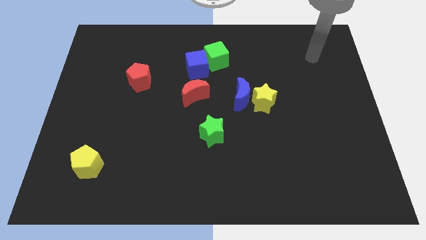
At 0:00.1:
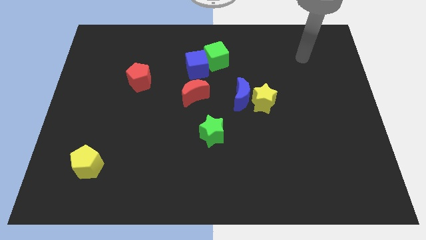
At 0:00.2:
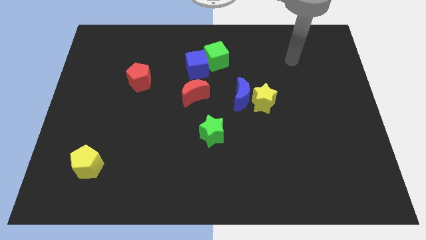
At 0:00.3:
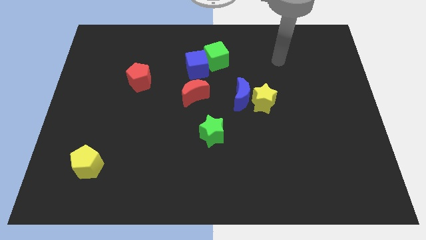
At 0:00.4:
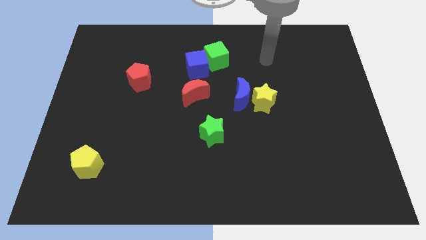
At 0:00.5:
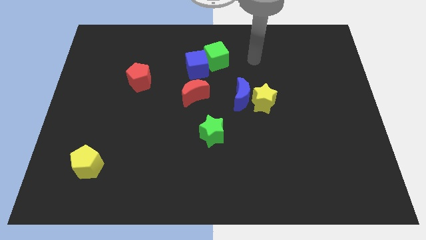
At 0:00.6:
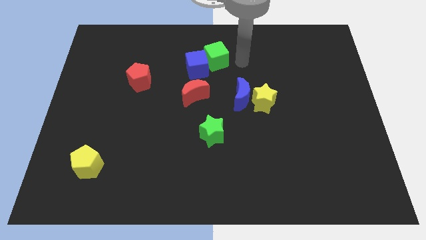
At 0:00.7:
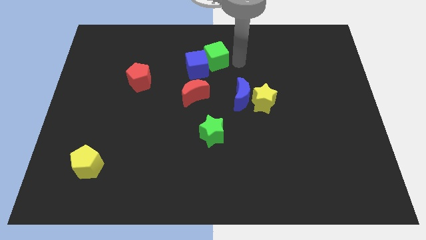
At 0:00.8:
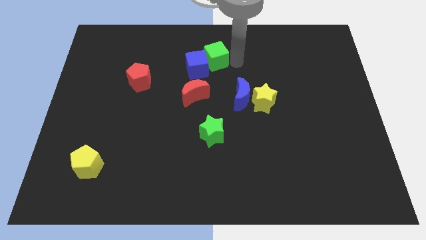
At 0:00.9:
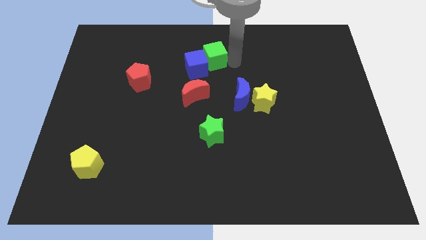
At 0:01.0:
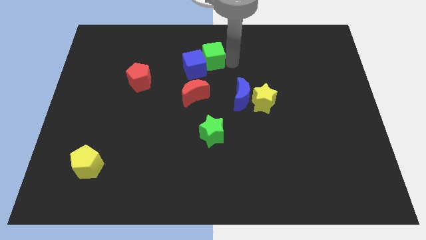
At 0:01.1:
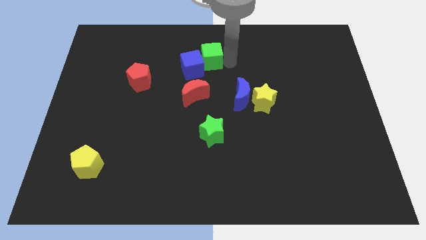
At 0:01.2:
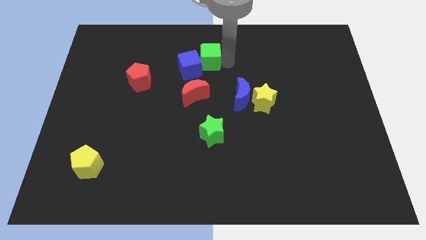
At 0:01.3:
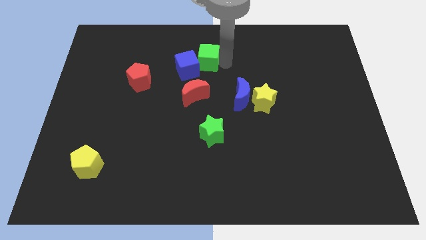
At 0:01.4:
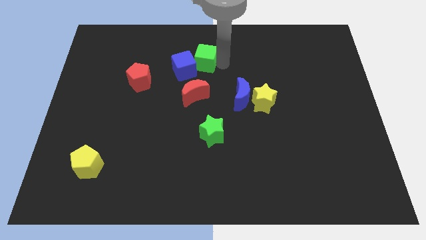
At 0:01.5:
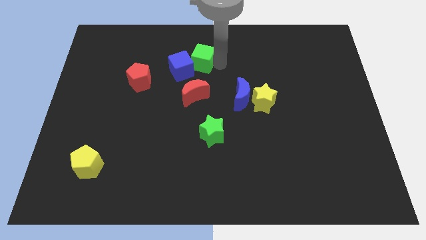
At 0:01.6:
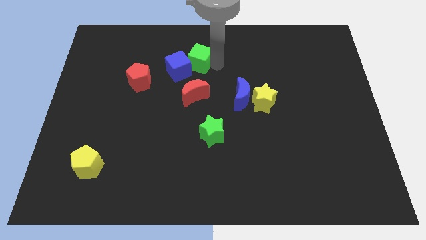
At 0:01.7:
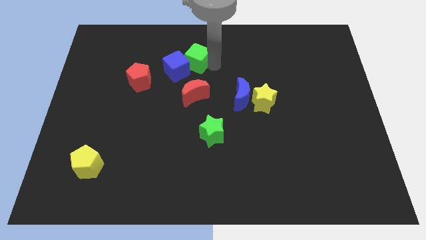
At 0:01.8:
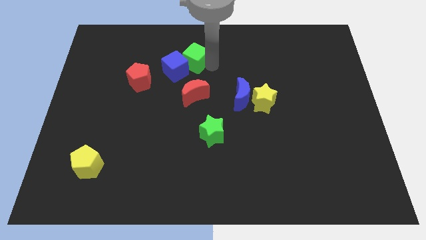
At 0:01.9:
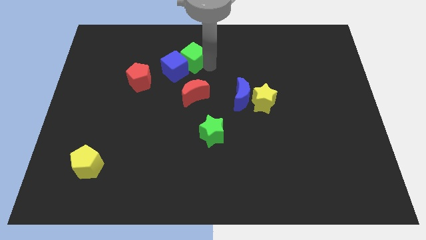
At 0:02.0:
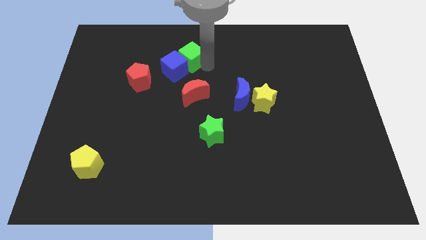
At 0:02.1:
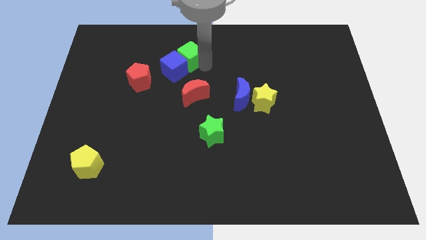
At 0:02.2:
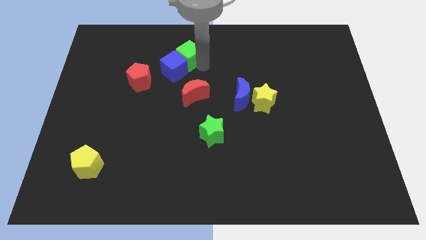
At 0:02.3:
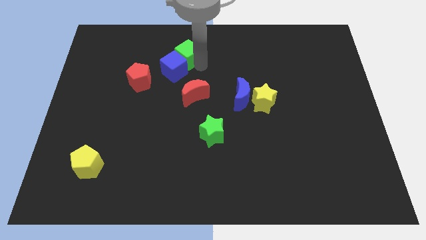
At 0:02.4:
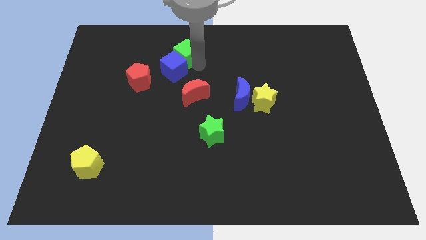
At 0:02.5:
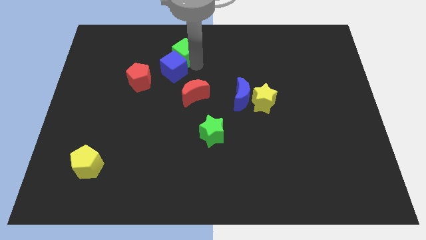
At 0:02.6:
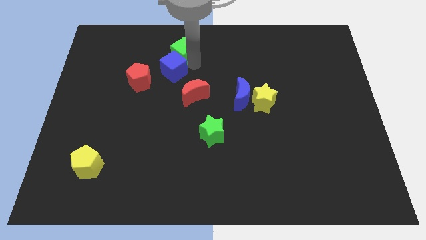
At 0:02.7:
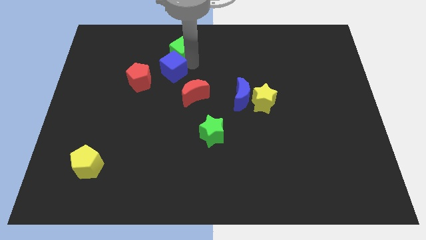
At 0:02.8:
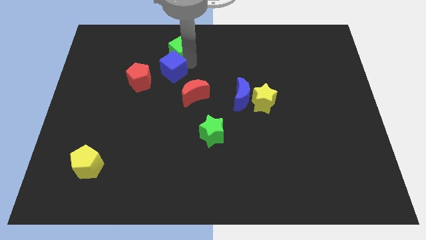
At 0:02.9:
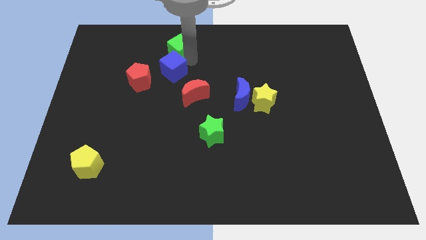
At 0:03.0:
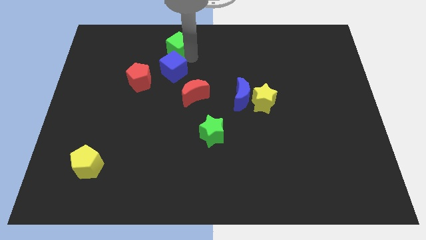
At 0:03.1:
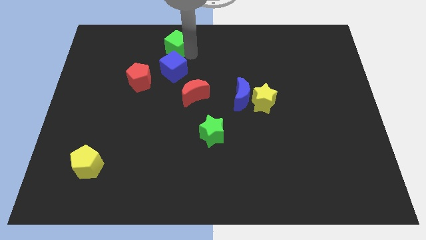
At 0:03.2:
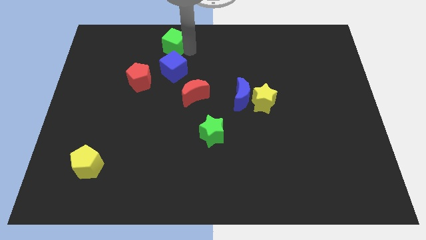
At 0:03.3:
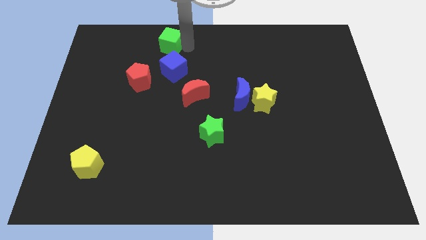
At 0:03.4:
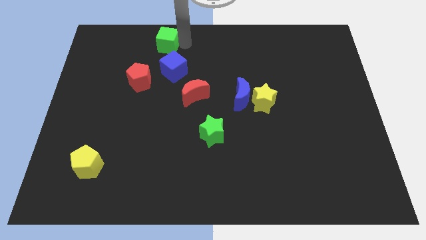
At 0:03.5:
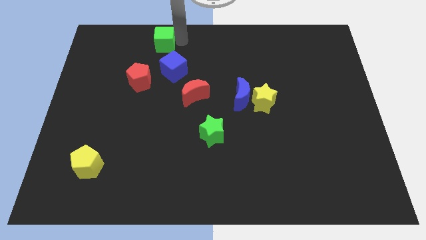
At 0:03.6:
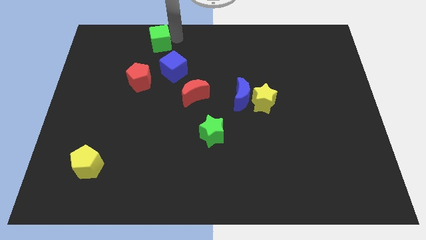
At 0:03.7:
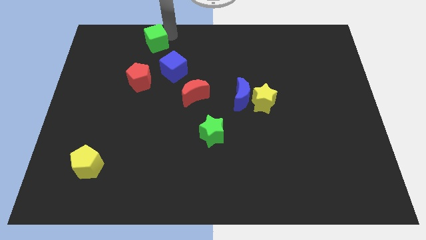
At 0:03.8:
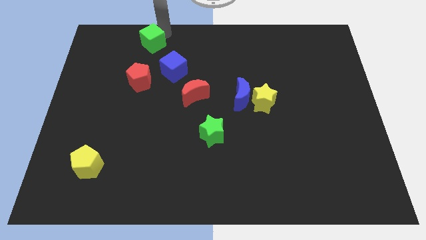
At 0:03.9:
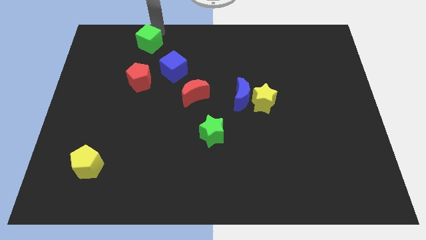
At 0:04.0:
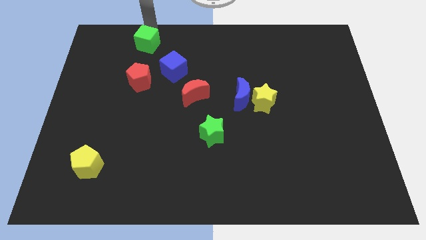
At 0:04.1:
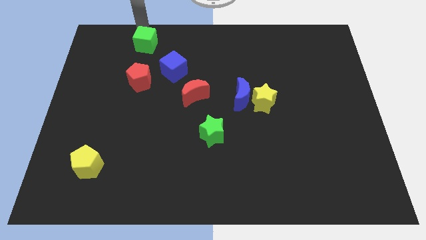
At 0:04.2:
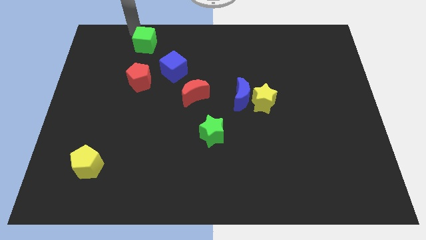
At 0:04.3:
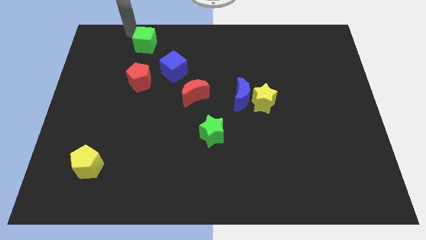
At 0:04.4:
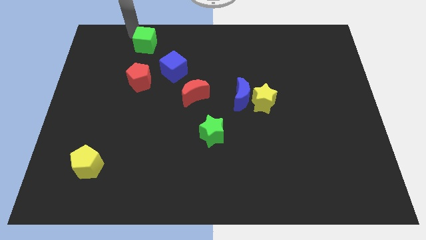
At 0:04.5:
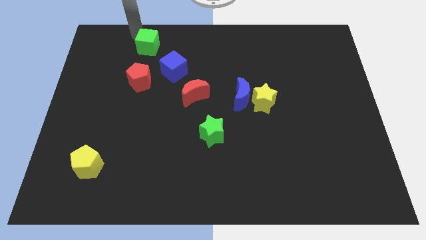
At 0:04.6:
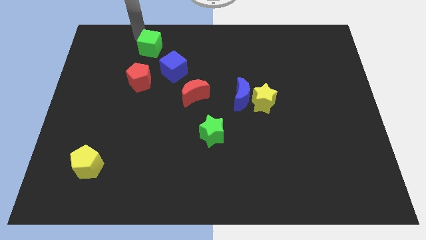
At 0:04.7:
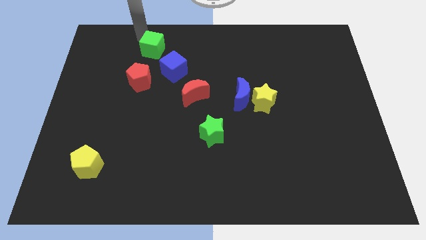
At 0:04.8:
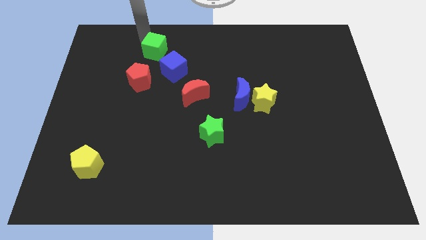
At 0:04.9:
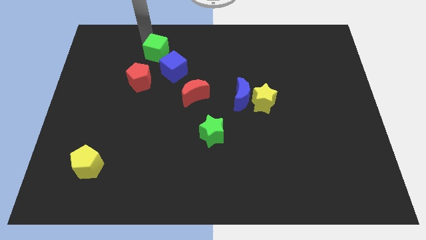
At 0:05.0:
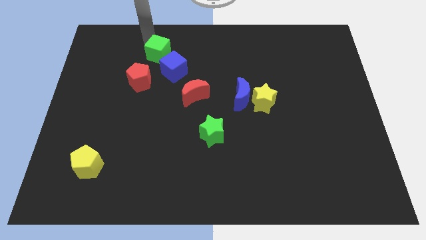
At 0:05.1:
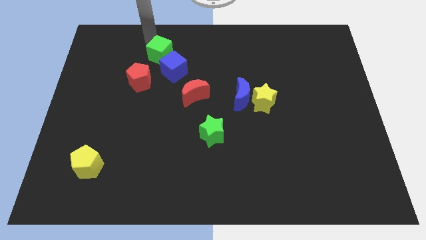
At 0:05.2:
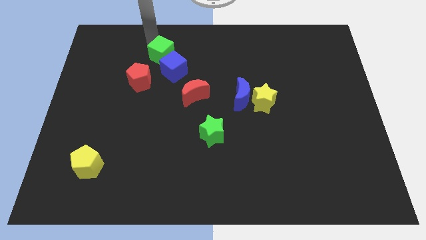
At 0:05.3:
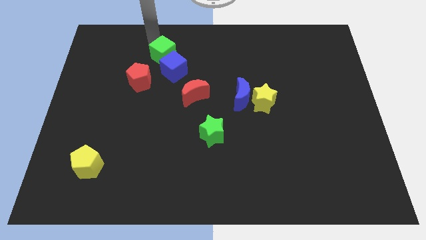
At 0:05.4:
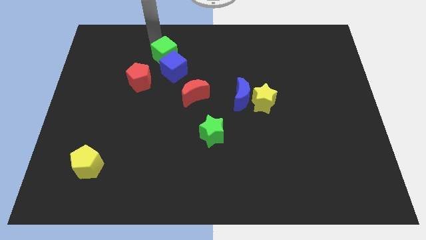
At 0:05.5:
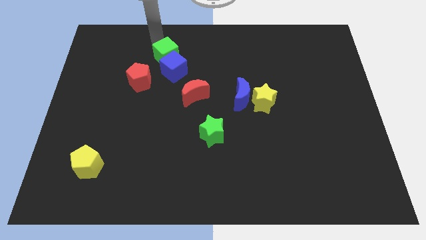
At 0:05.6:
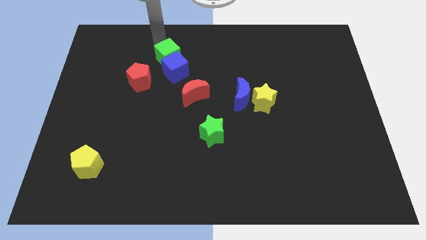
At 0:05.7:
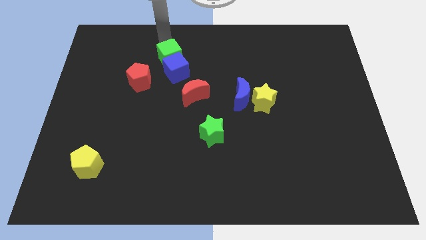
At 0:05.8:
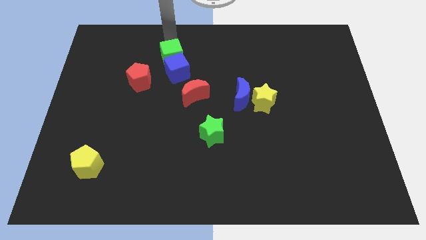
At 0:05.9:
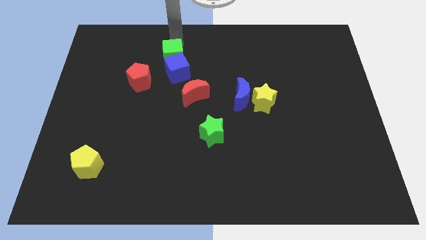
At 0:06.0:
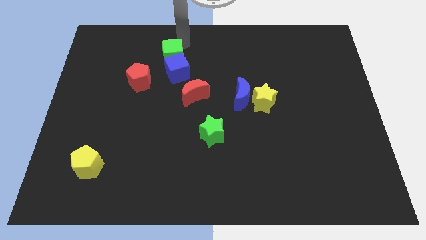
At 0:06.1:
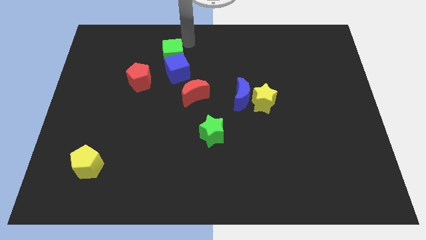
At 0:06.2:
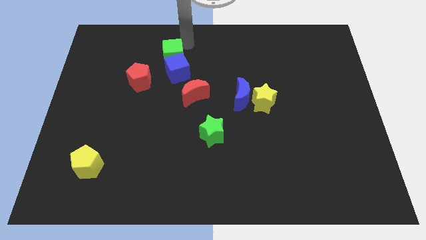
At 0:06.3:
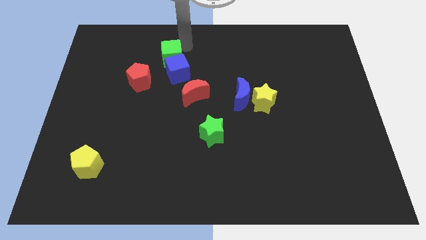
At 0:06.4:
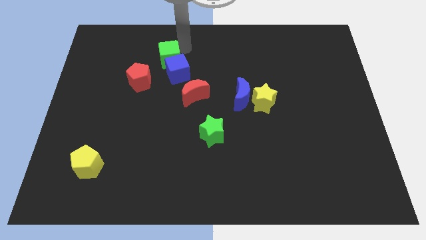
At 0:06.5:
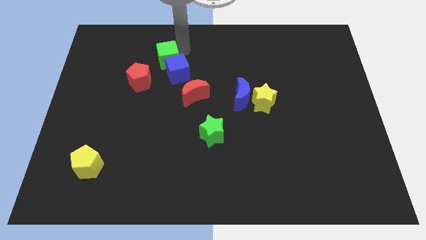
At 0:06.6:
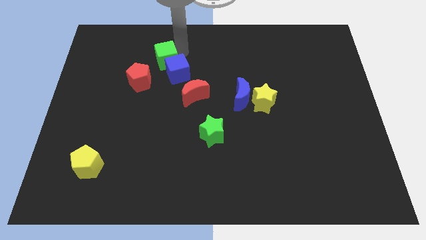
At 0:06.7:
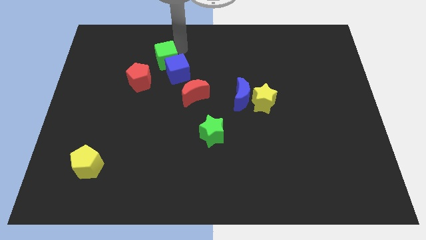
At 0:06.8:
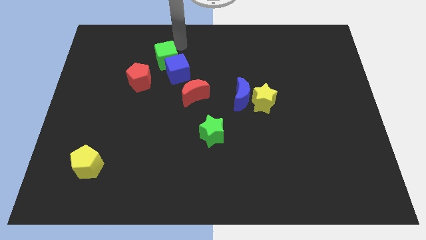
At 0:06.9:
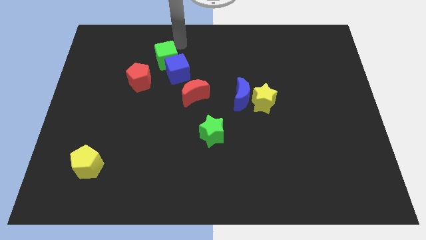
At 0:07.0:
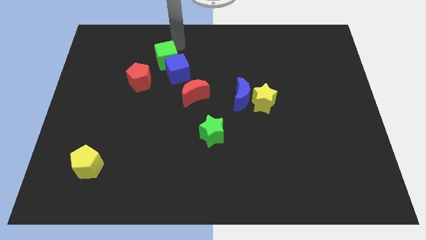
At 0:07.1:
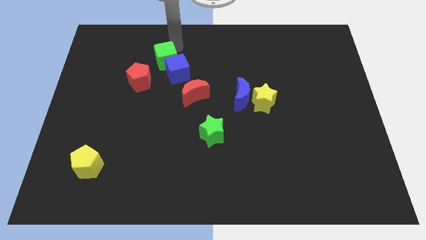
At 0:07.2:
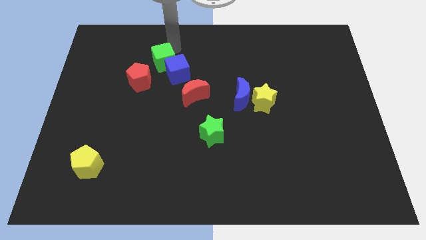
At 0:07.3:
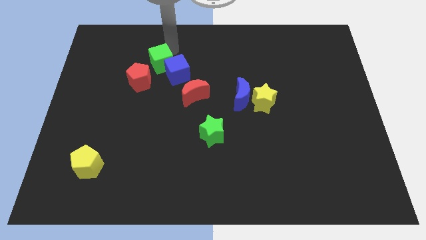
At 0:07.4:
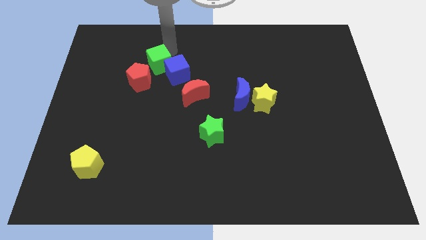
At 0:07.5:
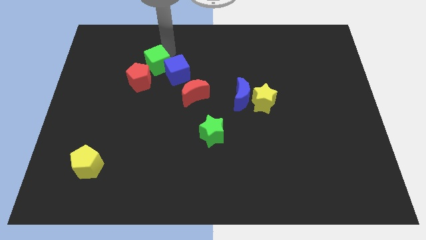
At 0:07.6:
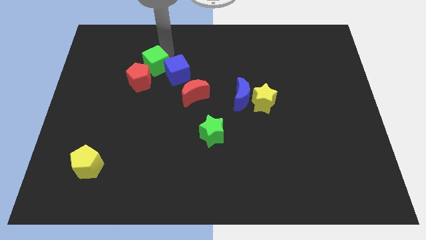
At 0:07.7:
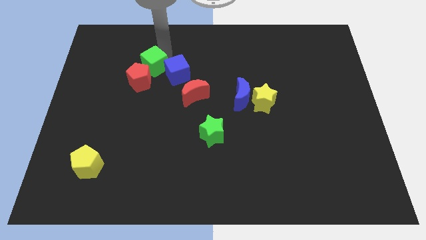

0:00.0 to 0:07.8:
slide the green cube towards the red pentagon
